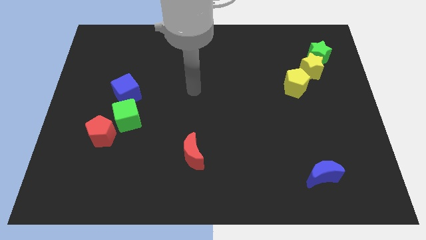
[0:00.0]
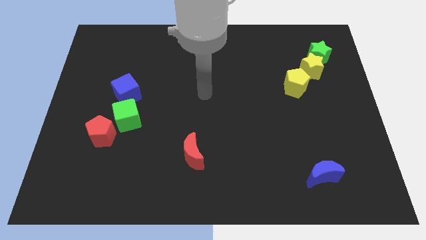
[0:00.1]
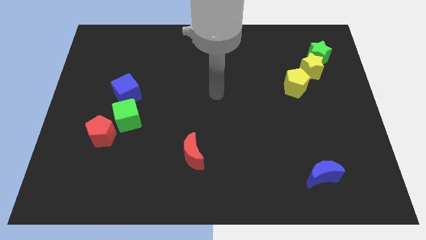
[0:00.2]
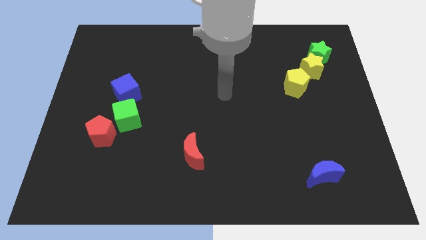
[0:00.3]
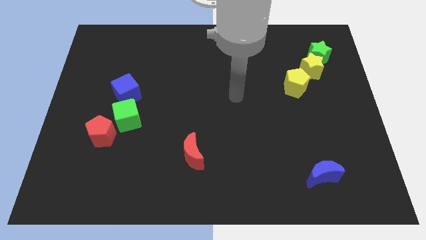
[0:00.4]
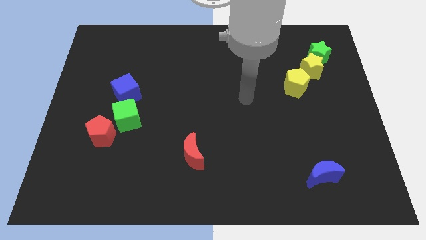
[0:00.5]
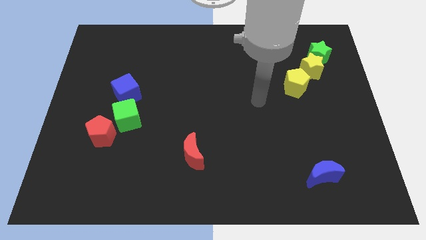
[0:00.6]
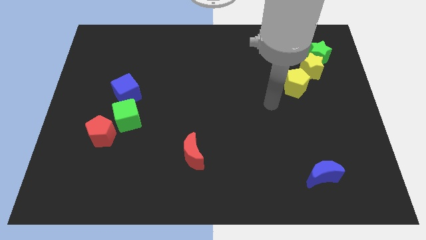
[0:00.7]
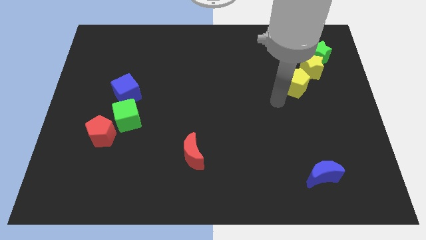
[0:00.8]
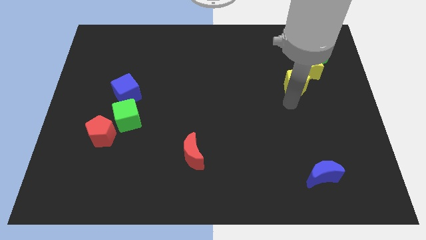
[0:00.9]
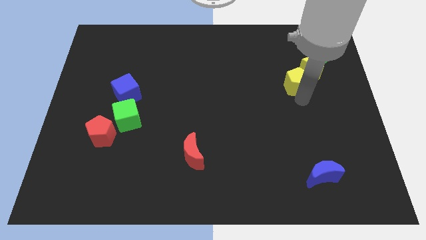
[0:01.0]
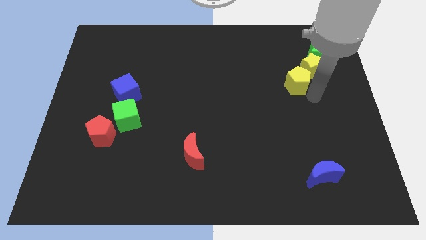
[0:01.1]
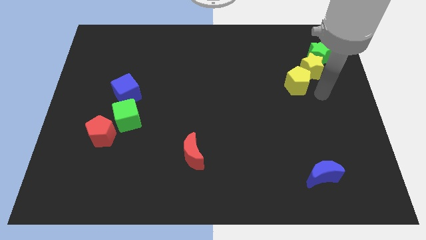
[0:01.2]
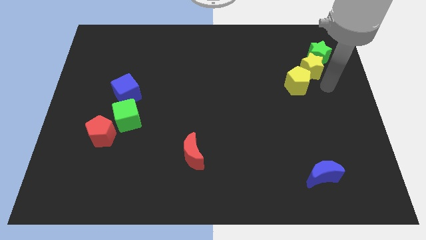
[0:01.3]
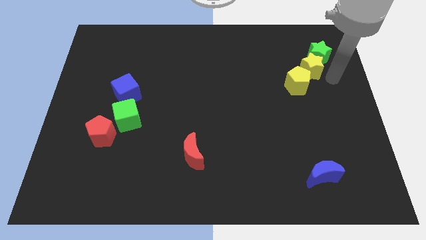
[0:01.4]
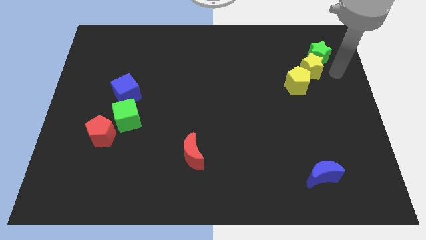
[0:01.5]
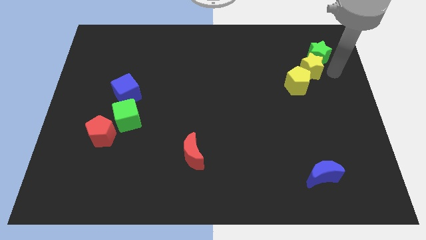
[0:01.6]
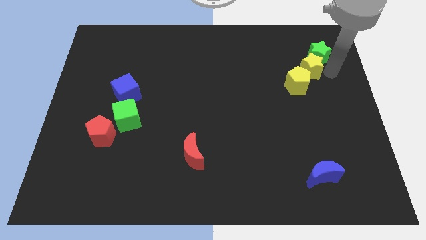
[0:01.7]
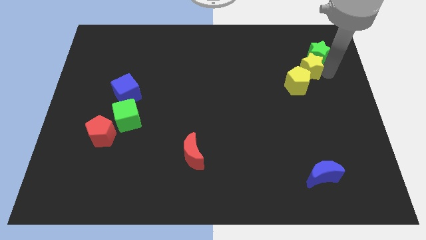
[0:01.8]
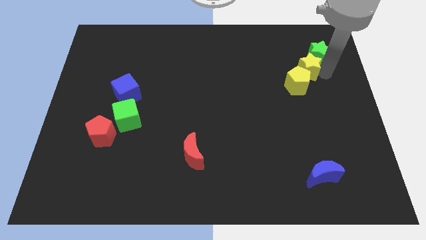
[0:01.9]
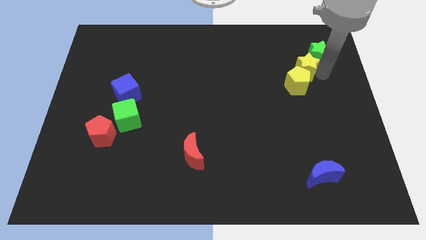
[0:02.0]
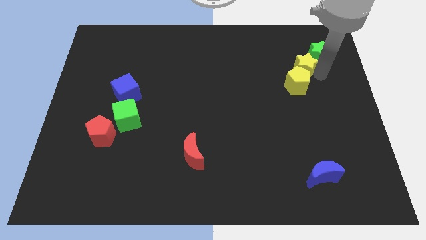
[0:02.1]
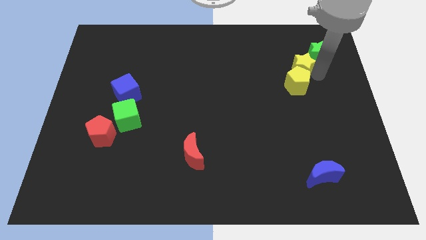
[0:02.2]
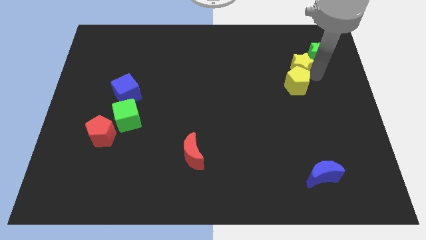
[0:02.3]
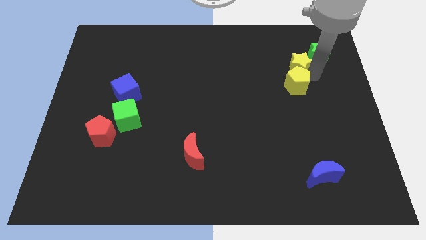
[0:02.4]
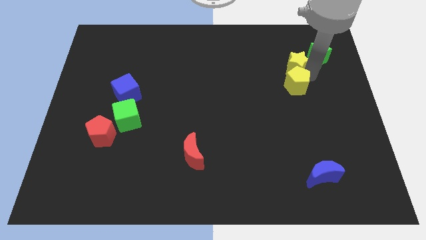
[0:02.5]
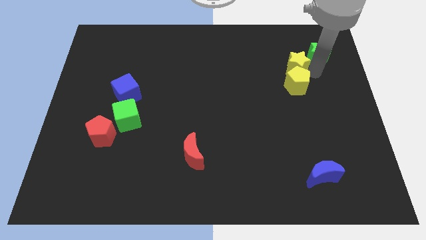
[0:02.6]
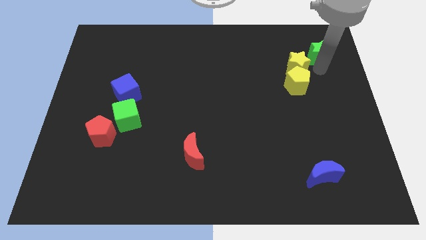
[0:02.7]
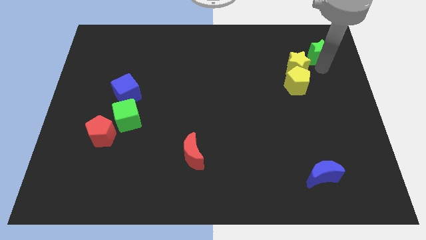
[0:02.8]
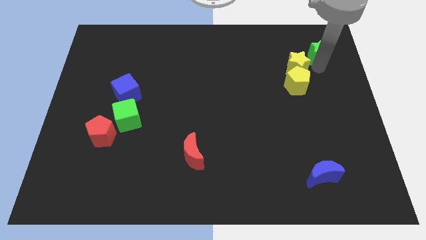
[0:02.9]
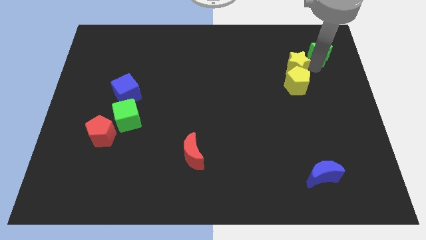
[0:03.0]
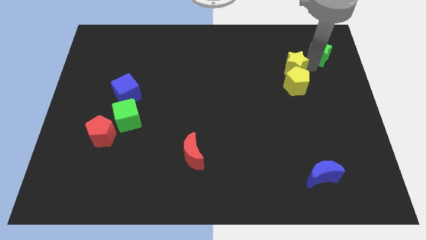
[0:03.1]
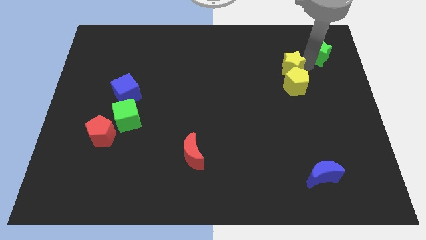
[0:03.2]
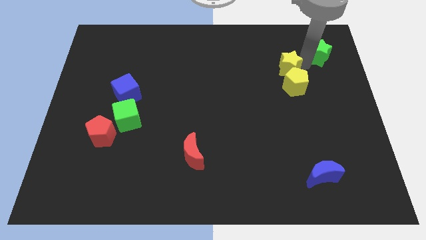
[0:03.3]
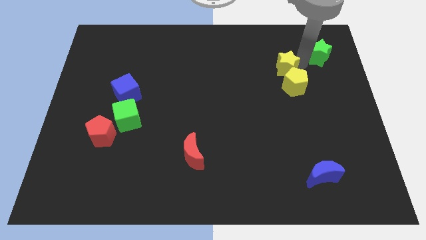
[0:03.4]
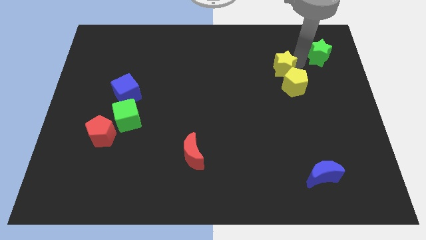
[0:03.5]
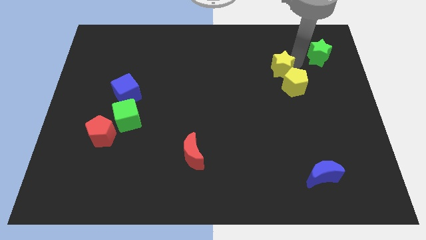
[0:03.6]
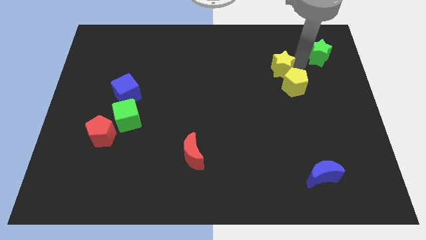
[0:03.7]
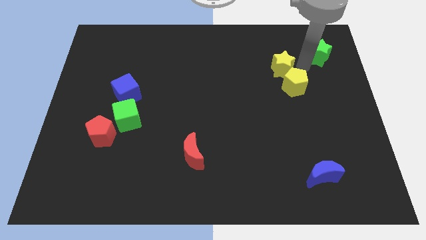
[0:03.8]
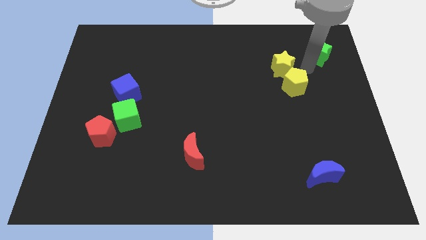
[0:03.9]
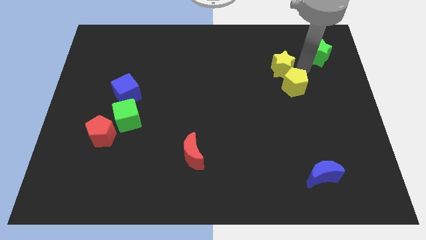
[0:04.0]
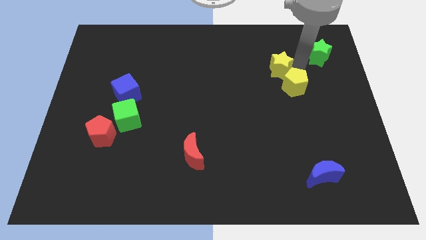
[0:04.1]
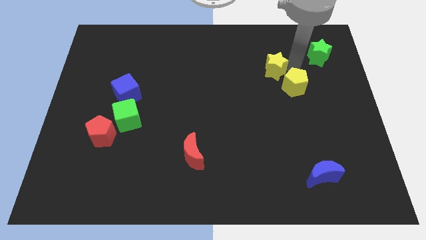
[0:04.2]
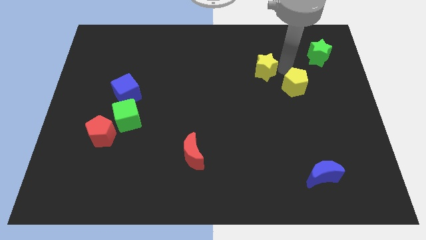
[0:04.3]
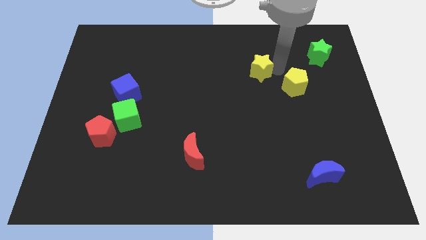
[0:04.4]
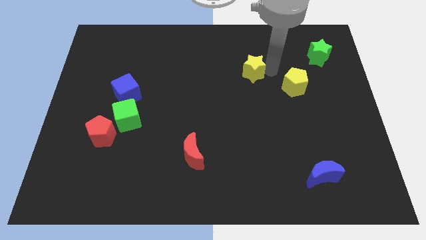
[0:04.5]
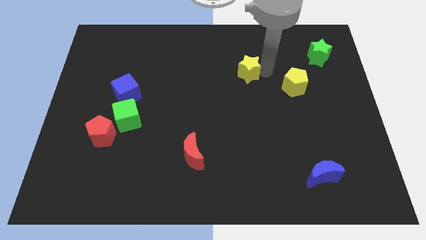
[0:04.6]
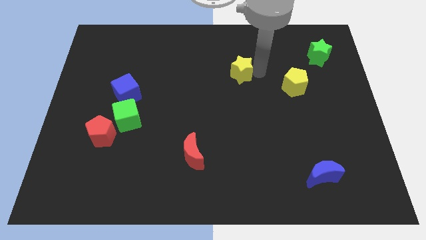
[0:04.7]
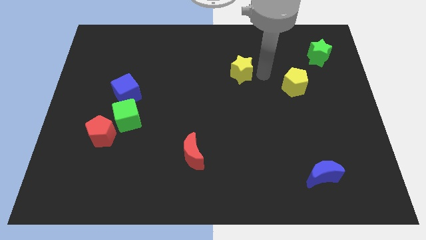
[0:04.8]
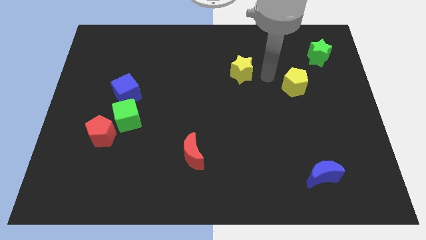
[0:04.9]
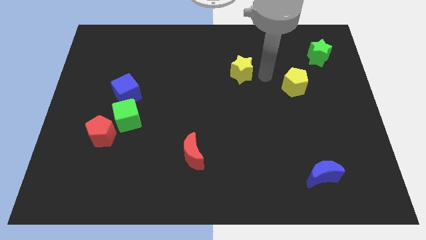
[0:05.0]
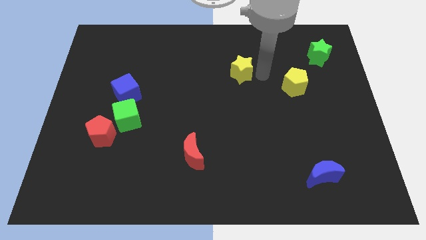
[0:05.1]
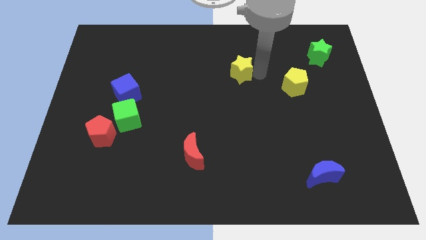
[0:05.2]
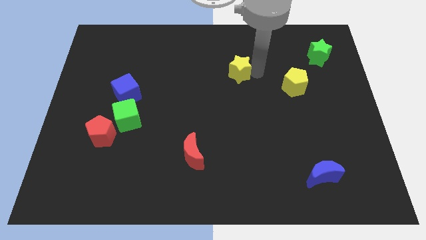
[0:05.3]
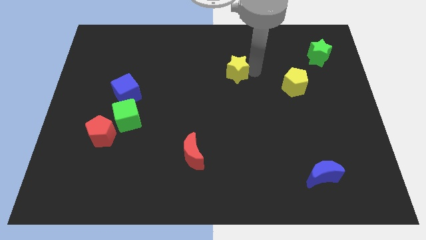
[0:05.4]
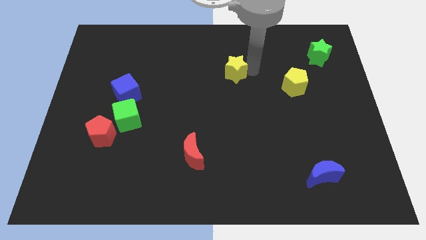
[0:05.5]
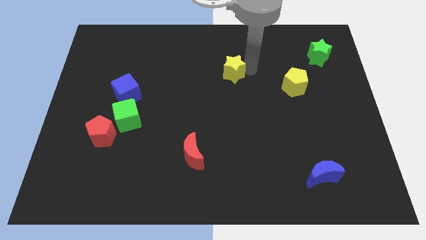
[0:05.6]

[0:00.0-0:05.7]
slide the yellow star to the left

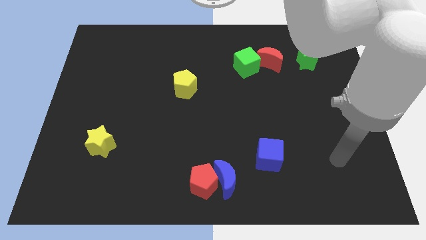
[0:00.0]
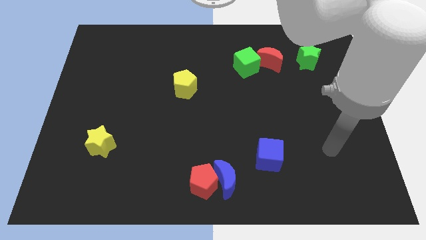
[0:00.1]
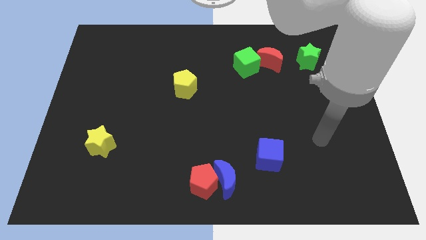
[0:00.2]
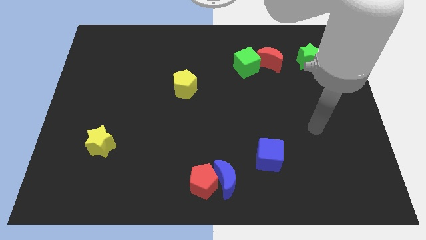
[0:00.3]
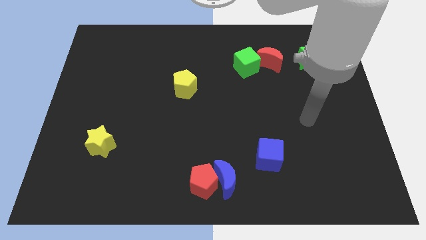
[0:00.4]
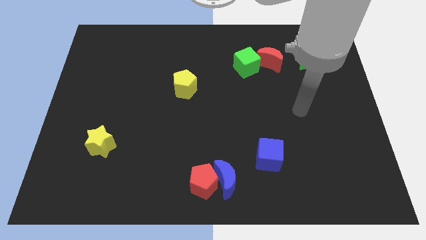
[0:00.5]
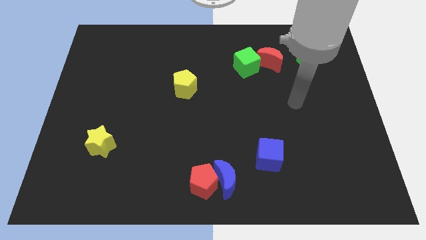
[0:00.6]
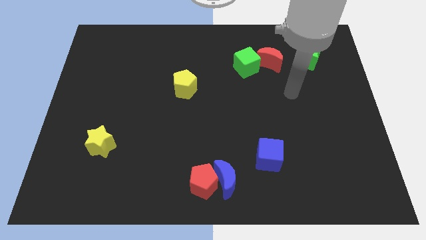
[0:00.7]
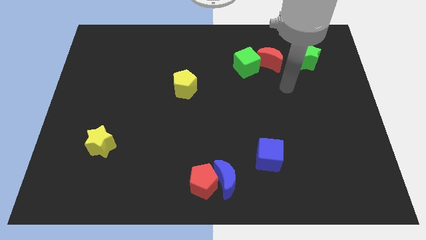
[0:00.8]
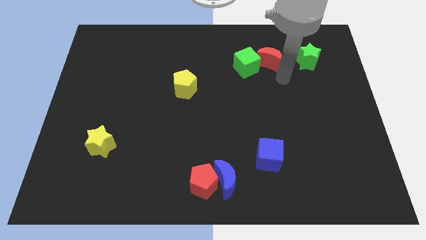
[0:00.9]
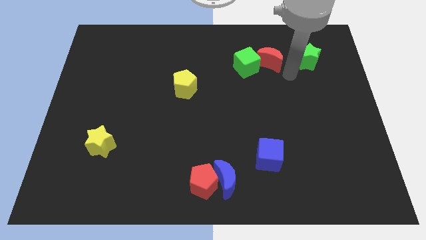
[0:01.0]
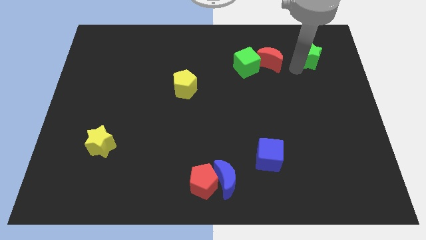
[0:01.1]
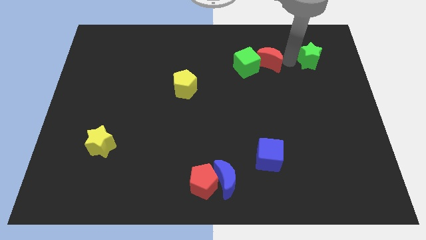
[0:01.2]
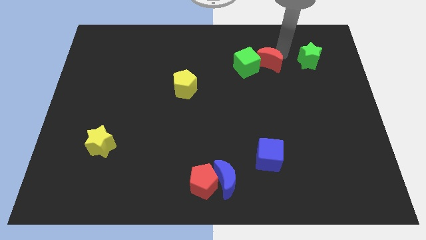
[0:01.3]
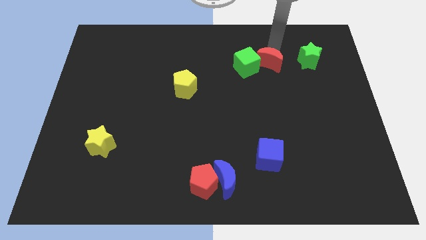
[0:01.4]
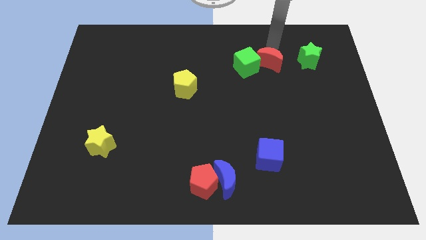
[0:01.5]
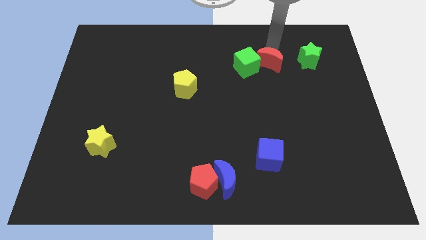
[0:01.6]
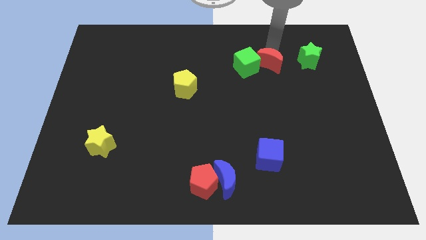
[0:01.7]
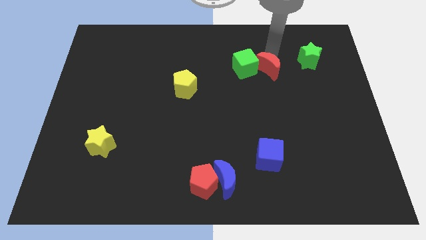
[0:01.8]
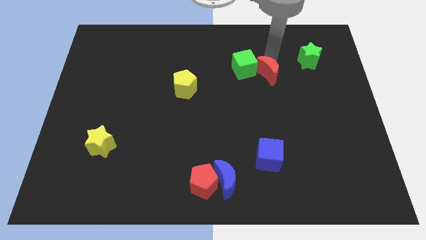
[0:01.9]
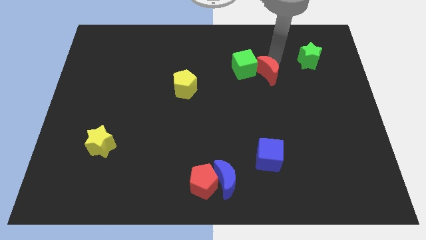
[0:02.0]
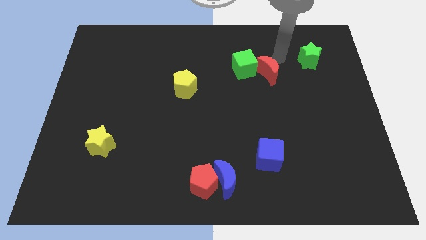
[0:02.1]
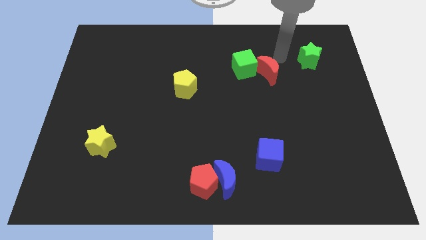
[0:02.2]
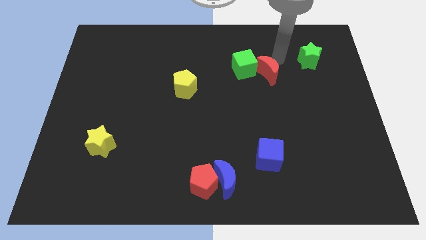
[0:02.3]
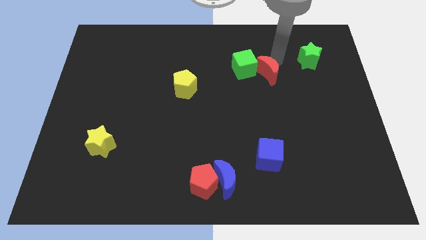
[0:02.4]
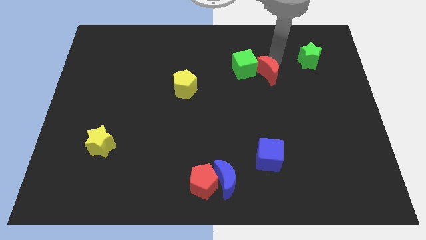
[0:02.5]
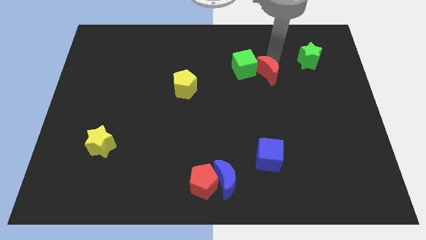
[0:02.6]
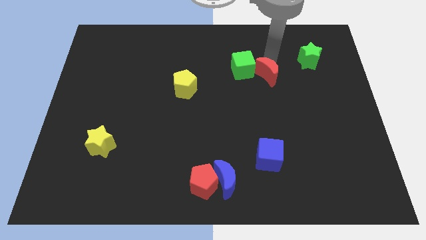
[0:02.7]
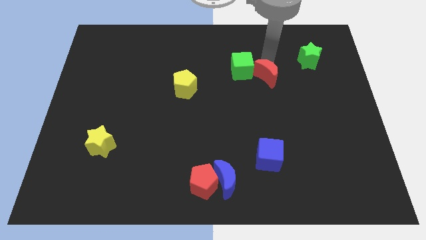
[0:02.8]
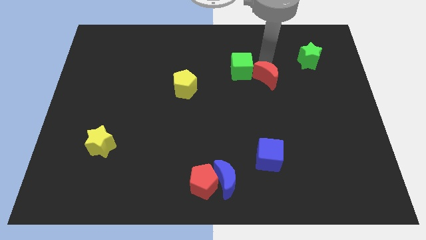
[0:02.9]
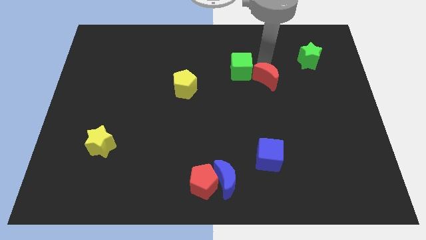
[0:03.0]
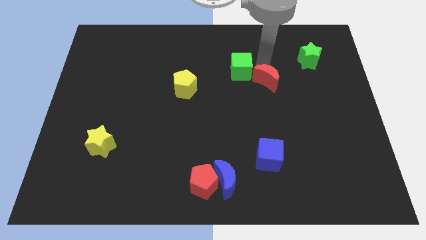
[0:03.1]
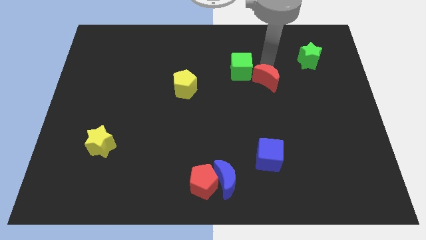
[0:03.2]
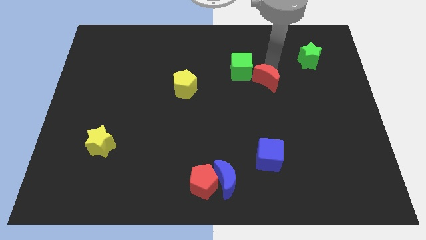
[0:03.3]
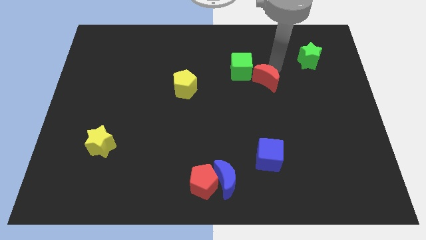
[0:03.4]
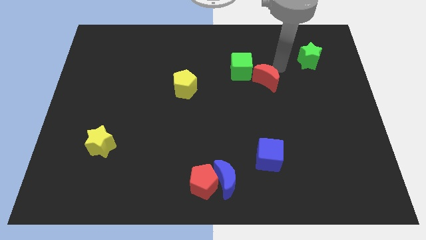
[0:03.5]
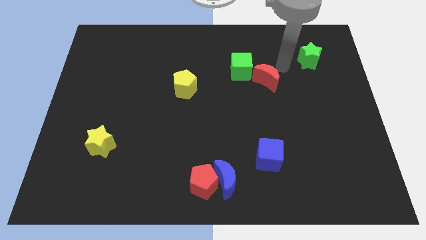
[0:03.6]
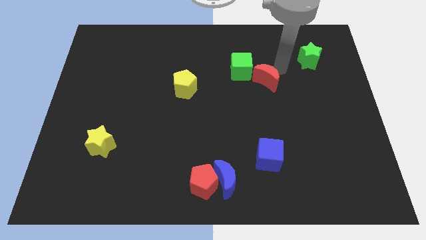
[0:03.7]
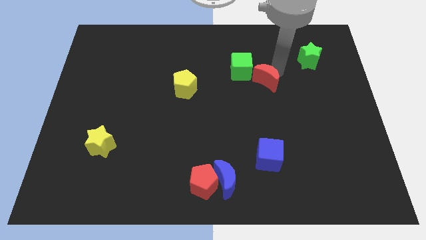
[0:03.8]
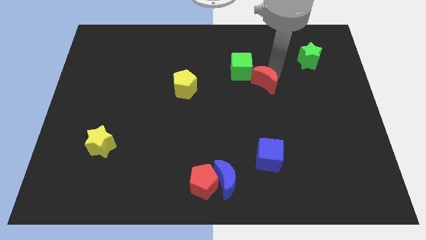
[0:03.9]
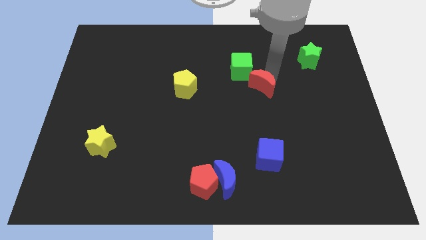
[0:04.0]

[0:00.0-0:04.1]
move the red moon a little bit down and to the left
